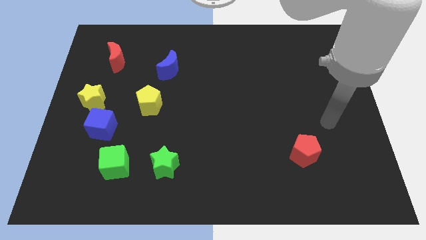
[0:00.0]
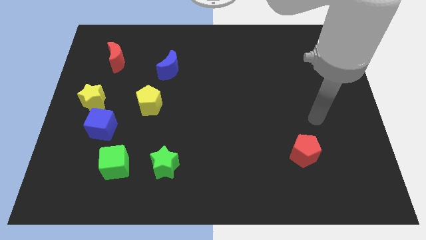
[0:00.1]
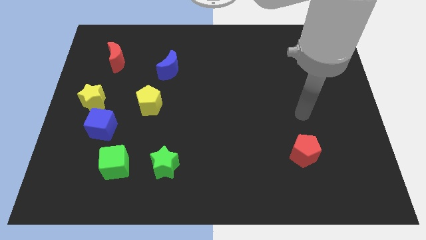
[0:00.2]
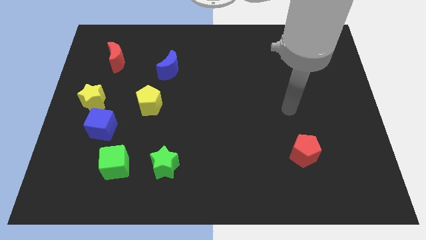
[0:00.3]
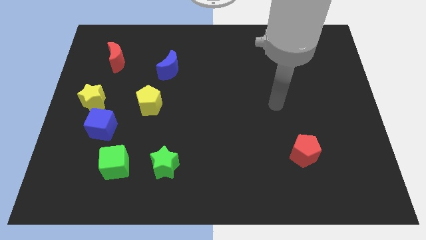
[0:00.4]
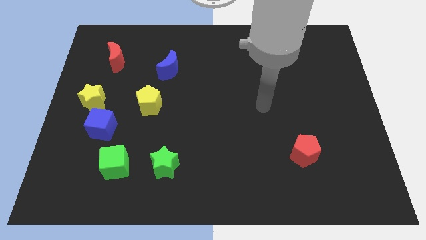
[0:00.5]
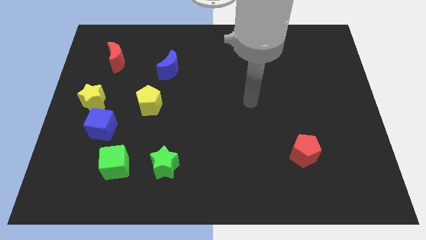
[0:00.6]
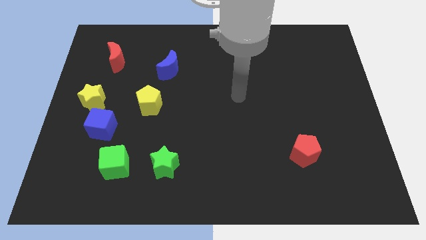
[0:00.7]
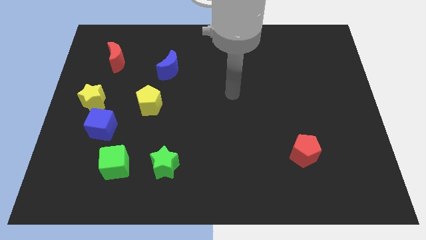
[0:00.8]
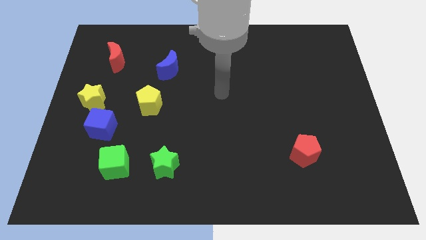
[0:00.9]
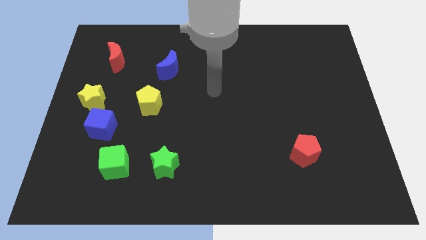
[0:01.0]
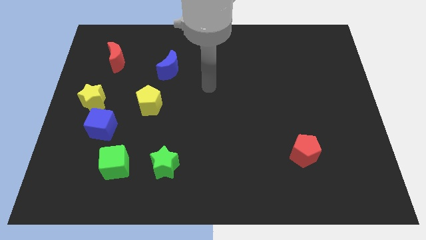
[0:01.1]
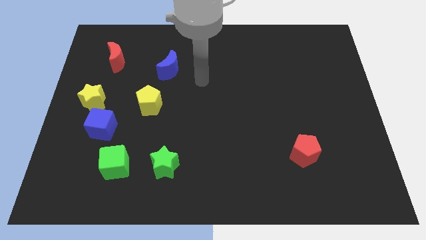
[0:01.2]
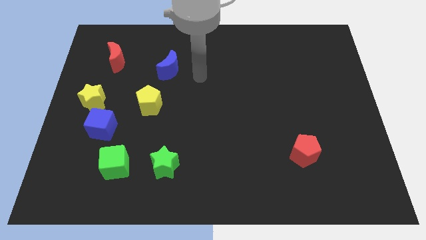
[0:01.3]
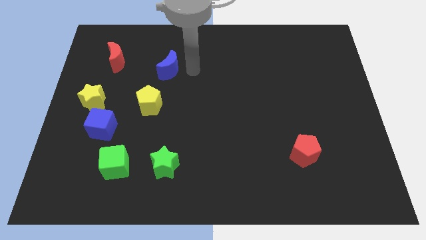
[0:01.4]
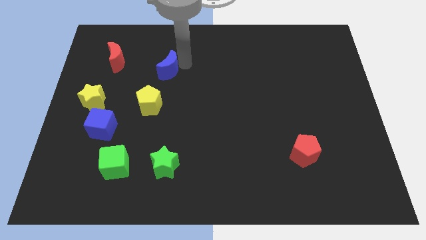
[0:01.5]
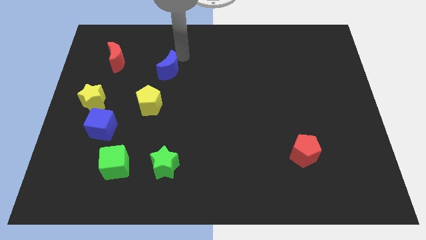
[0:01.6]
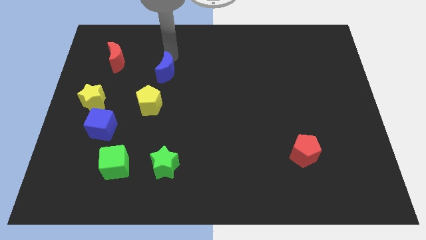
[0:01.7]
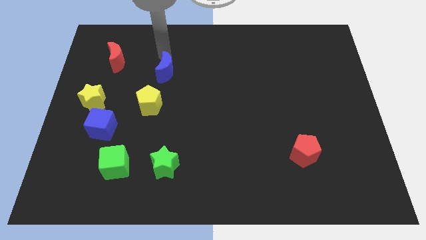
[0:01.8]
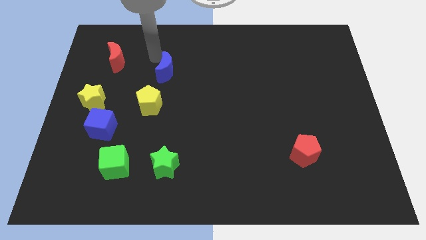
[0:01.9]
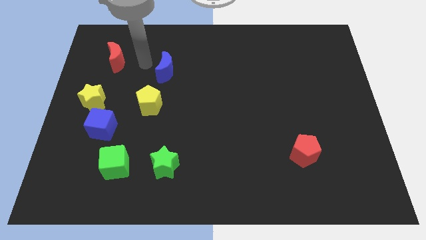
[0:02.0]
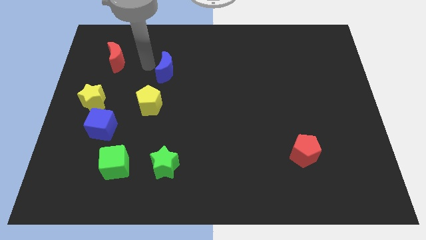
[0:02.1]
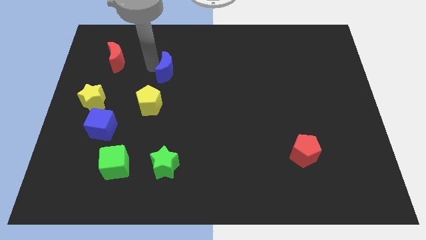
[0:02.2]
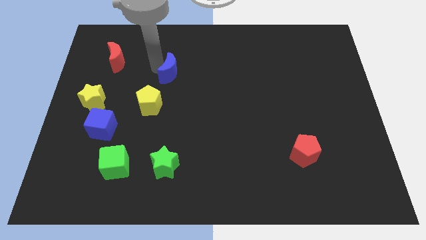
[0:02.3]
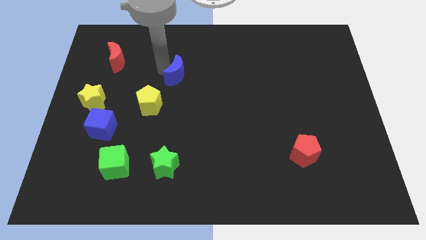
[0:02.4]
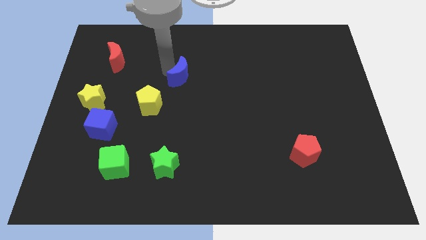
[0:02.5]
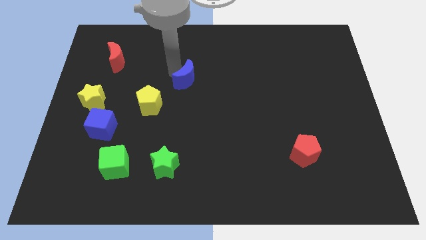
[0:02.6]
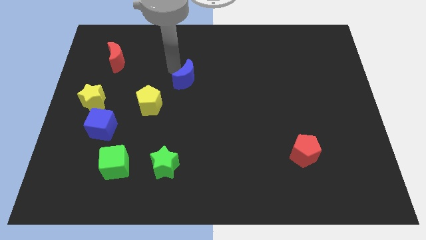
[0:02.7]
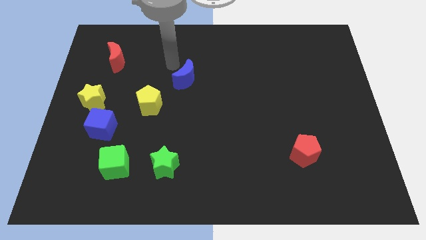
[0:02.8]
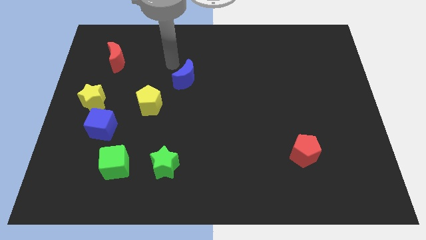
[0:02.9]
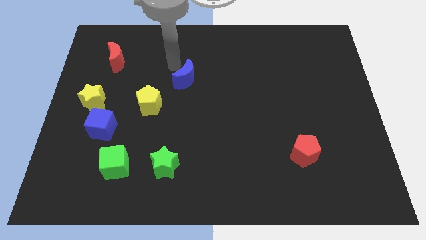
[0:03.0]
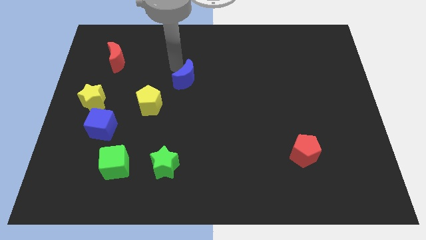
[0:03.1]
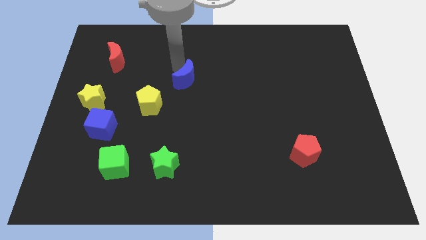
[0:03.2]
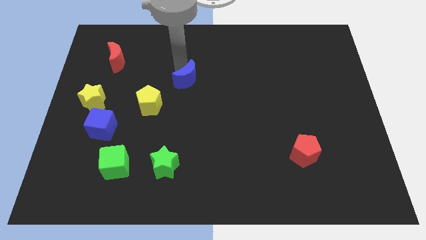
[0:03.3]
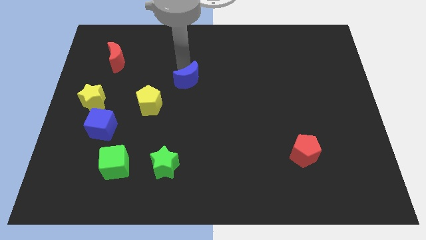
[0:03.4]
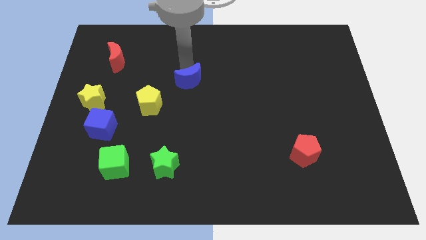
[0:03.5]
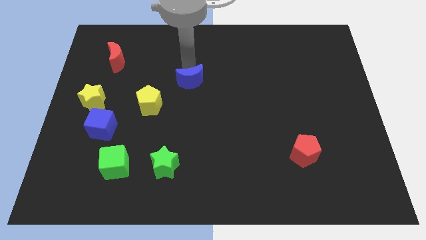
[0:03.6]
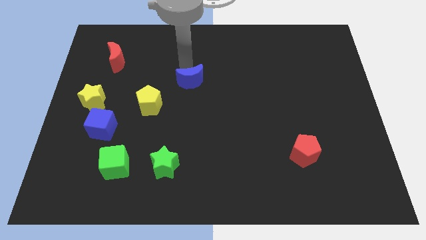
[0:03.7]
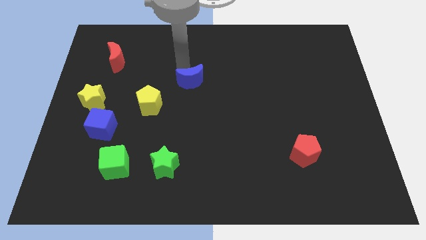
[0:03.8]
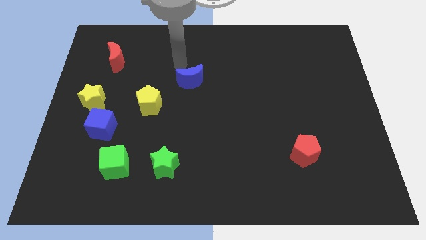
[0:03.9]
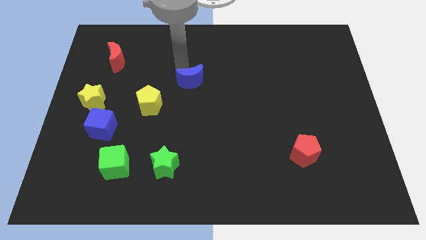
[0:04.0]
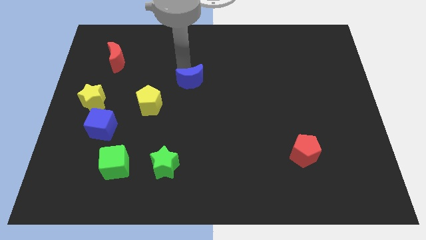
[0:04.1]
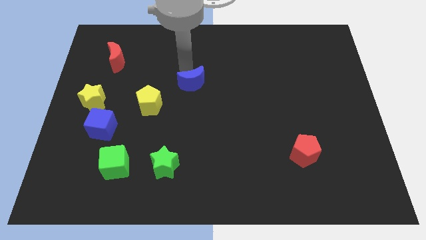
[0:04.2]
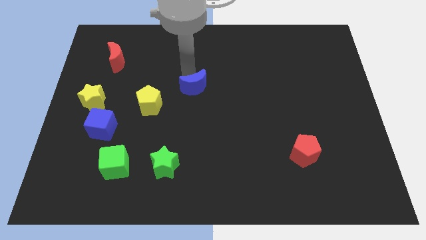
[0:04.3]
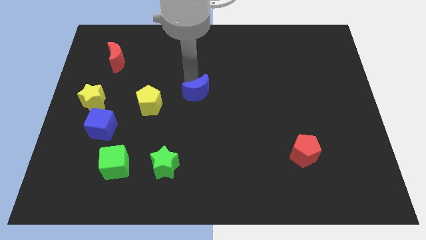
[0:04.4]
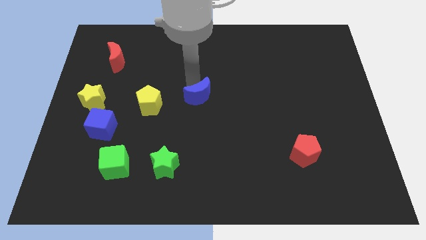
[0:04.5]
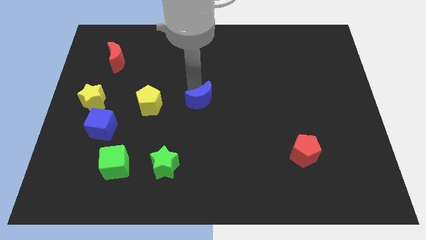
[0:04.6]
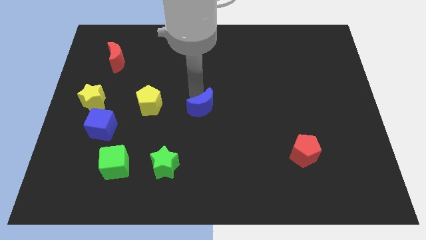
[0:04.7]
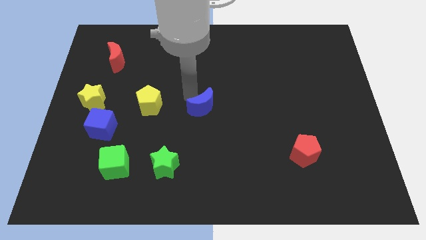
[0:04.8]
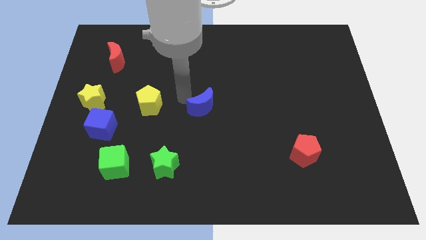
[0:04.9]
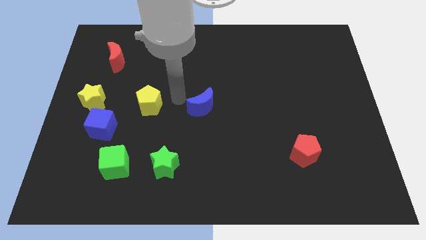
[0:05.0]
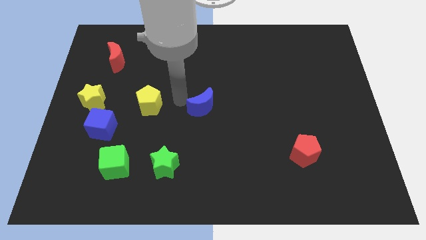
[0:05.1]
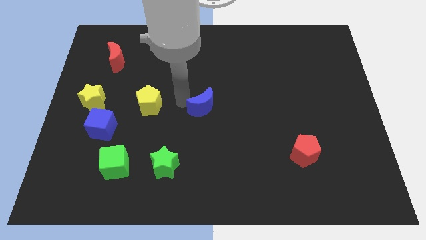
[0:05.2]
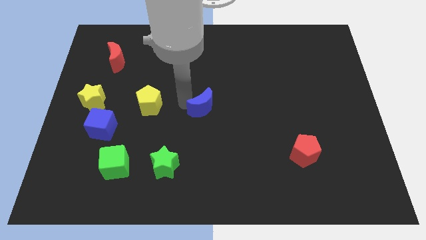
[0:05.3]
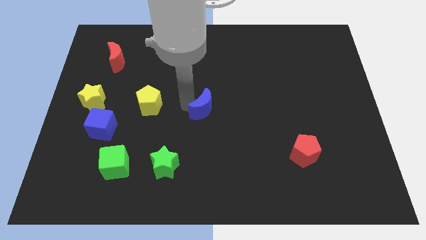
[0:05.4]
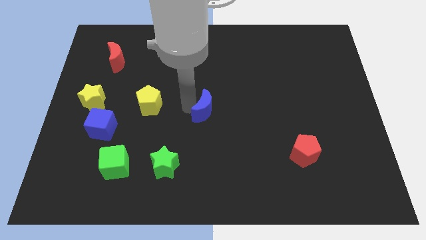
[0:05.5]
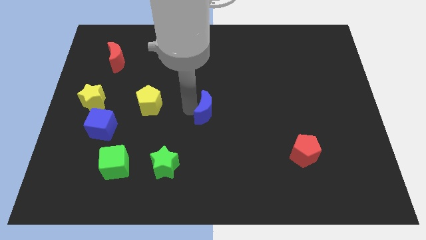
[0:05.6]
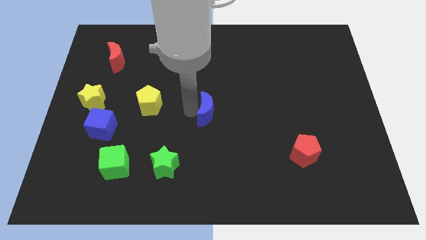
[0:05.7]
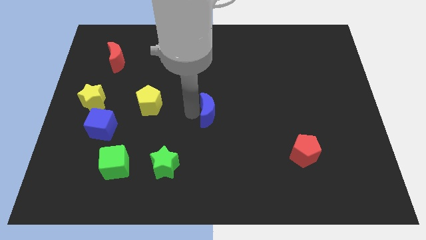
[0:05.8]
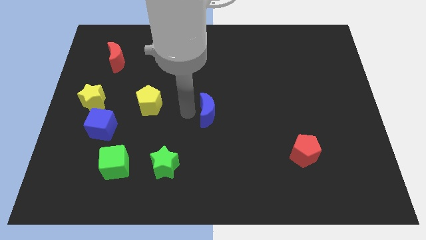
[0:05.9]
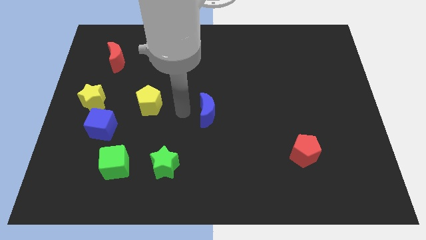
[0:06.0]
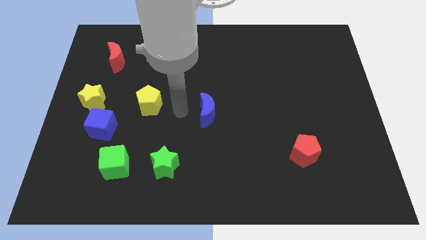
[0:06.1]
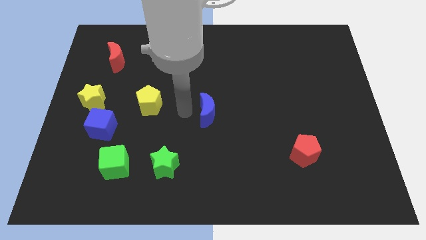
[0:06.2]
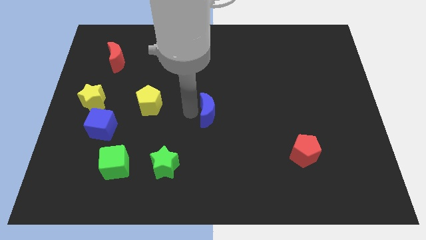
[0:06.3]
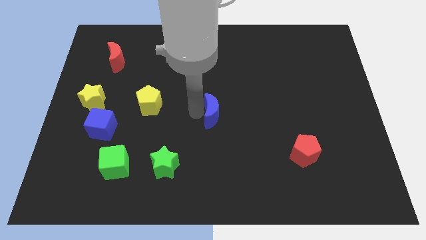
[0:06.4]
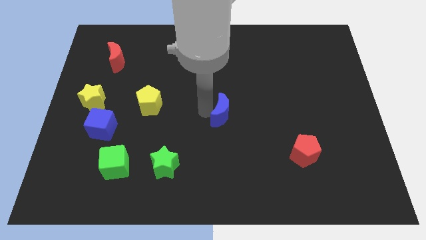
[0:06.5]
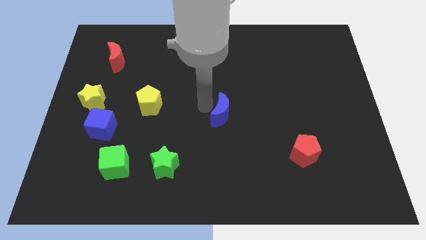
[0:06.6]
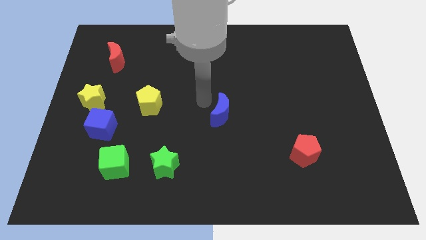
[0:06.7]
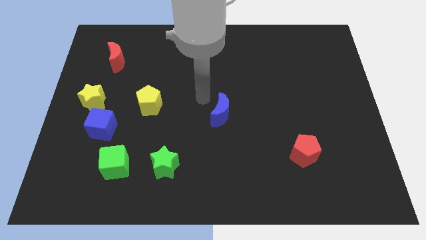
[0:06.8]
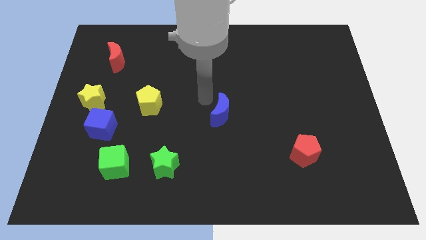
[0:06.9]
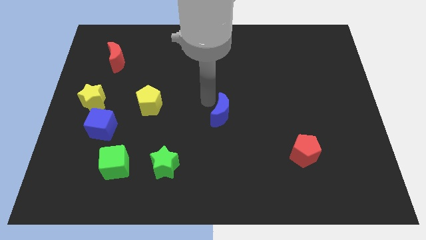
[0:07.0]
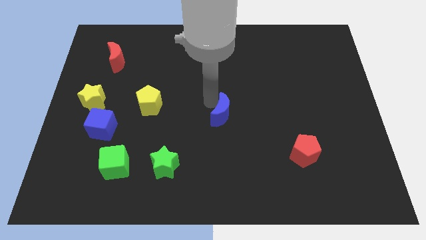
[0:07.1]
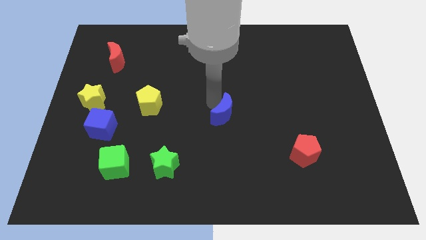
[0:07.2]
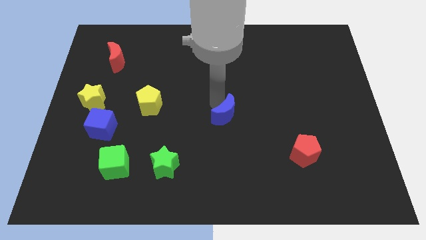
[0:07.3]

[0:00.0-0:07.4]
slide the blue moon diagonally downwards and to the right

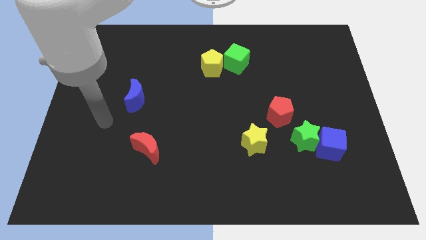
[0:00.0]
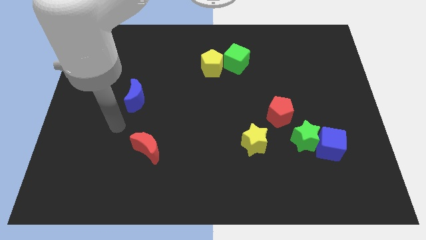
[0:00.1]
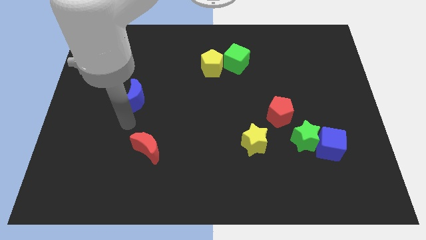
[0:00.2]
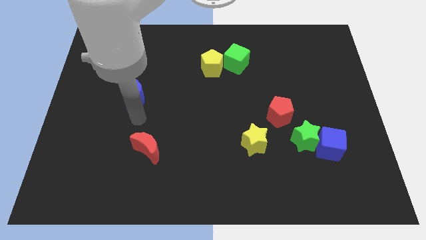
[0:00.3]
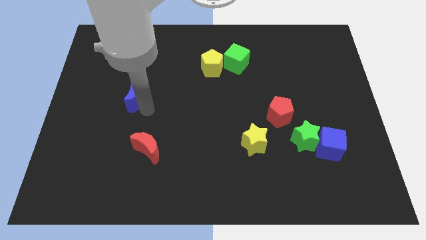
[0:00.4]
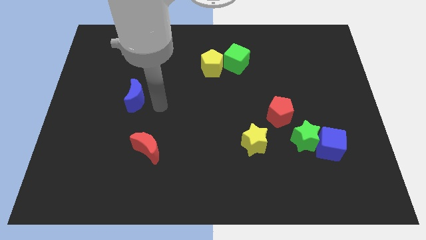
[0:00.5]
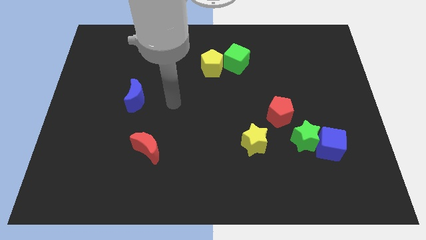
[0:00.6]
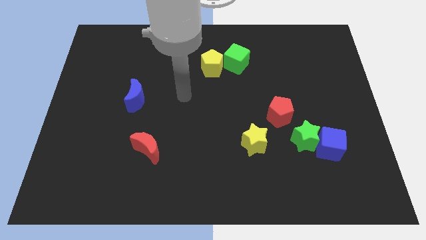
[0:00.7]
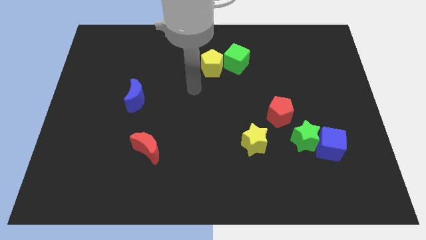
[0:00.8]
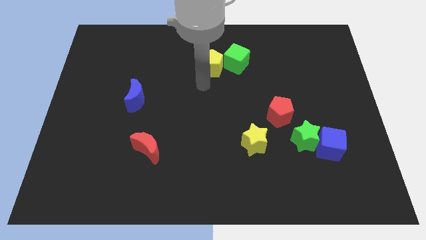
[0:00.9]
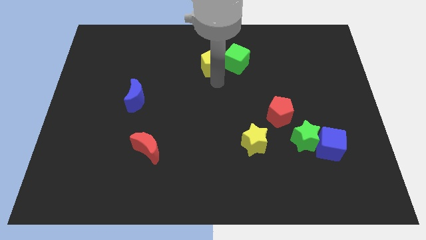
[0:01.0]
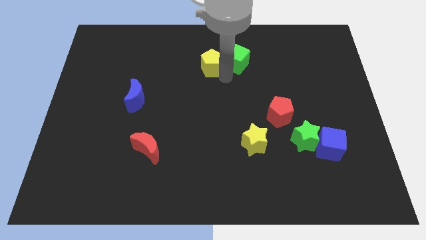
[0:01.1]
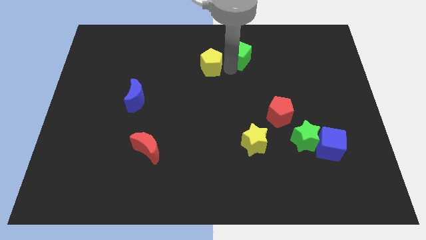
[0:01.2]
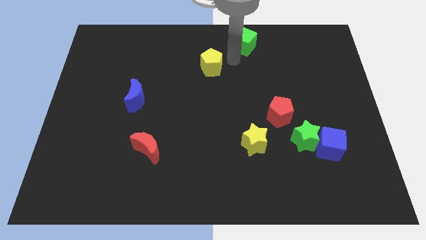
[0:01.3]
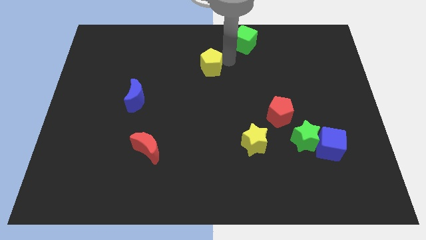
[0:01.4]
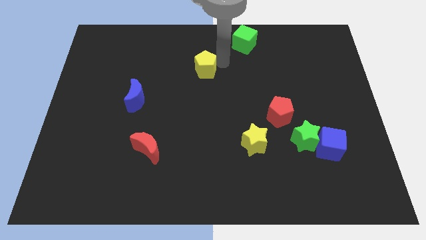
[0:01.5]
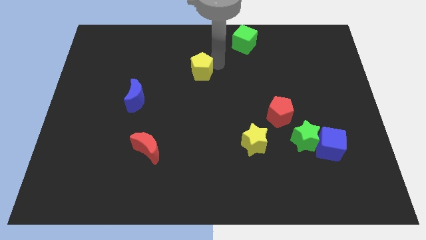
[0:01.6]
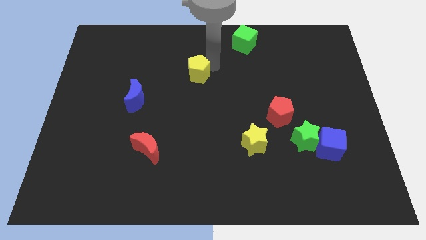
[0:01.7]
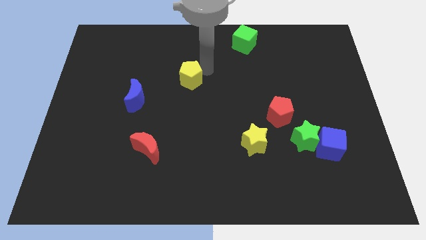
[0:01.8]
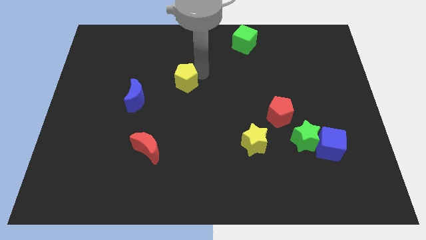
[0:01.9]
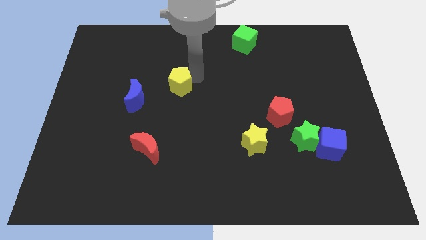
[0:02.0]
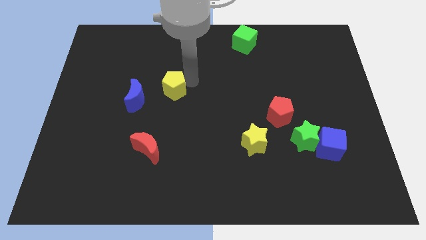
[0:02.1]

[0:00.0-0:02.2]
slightly push the yellow pentagon left
